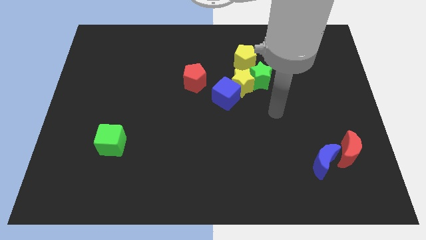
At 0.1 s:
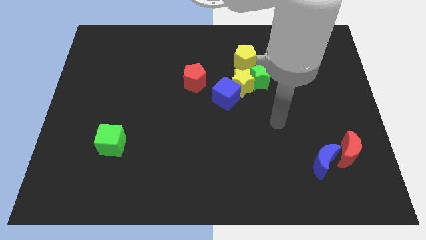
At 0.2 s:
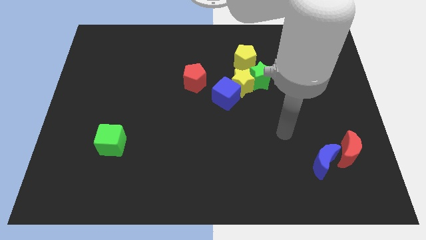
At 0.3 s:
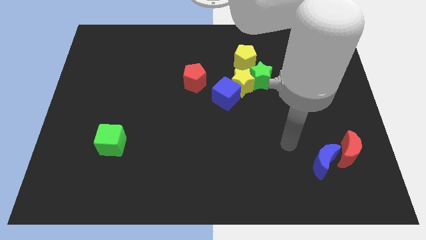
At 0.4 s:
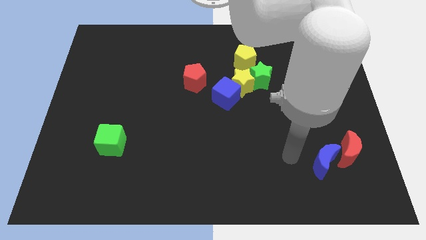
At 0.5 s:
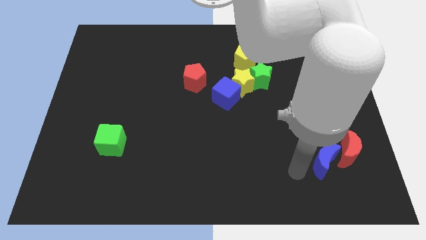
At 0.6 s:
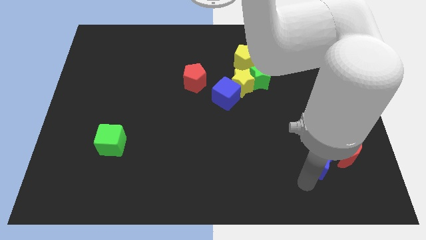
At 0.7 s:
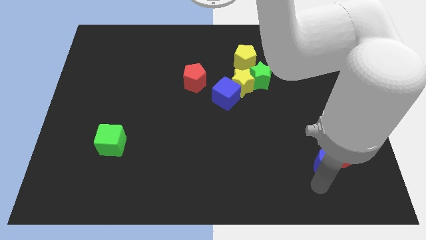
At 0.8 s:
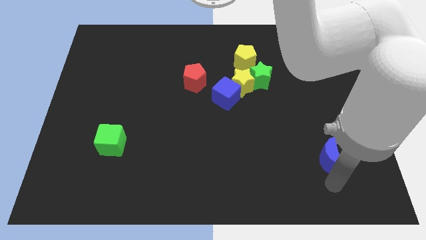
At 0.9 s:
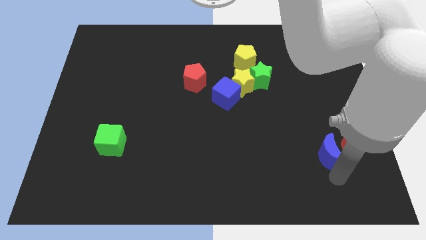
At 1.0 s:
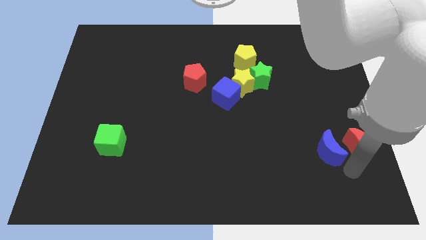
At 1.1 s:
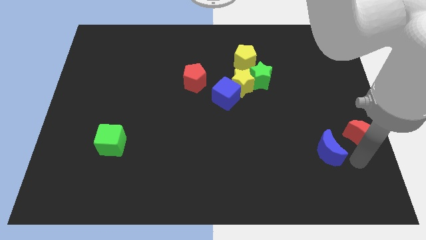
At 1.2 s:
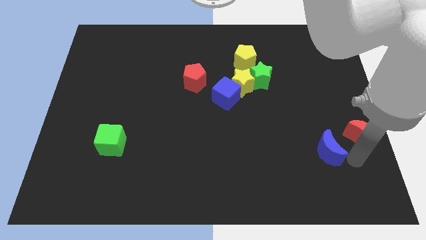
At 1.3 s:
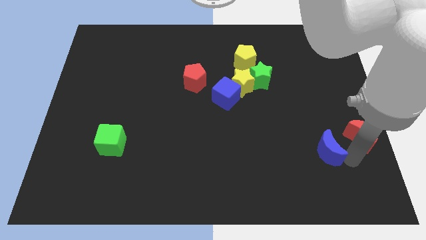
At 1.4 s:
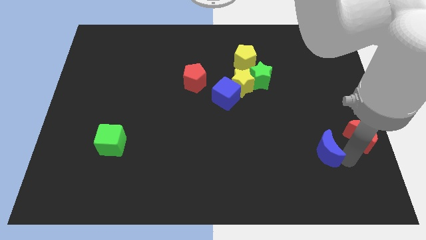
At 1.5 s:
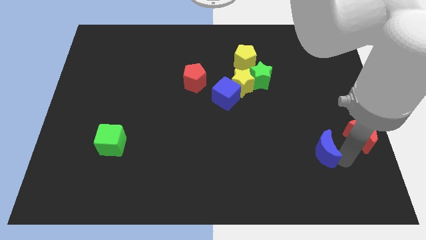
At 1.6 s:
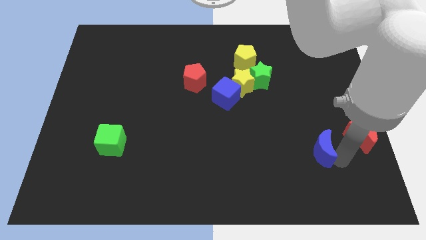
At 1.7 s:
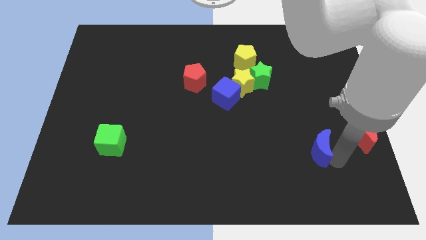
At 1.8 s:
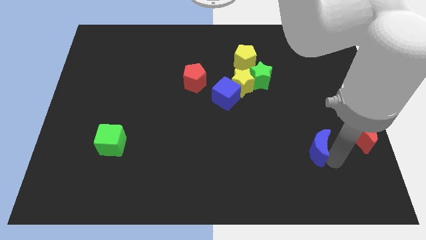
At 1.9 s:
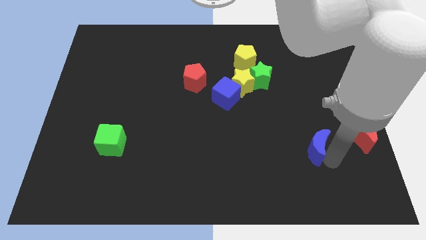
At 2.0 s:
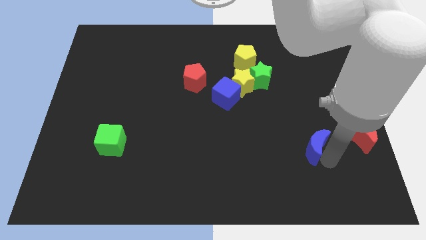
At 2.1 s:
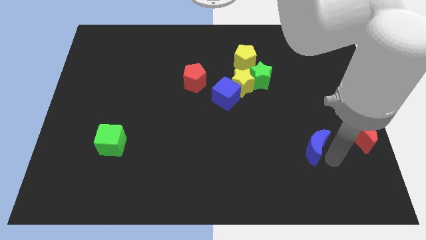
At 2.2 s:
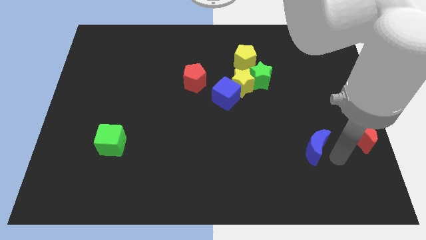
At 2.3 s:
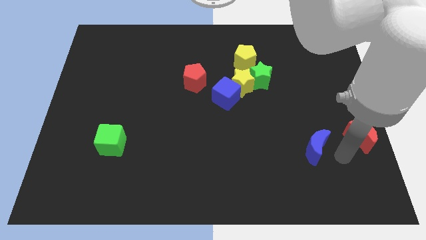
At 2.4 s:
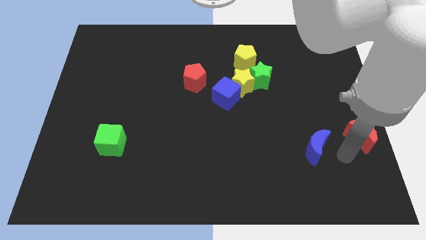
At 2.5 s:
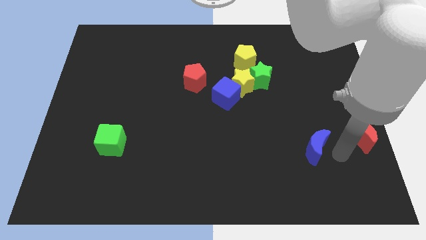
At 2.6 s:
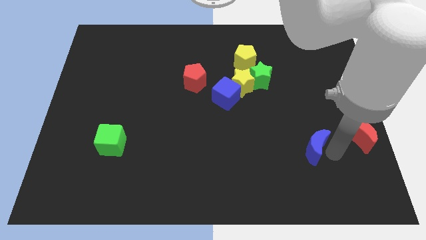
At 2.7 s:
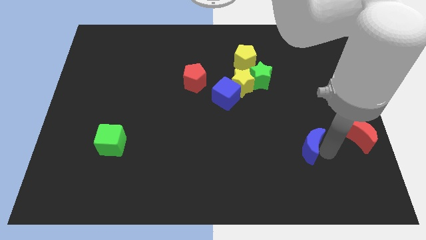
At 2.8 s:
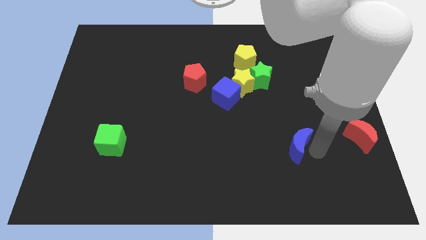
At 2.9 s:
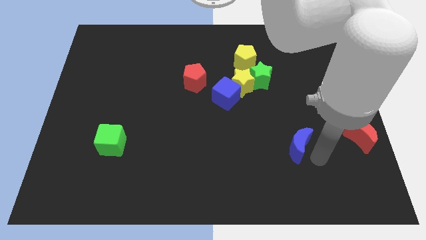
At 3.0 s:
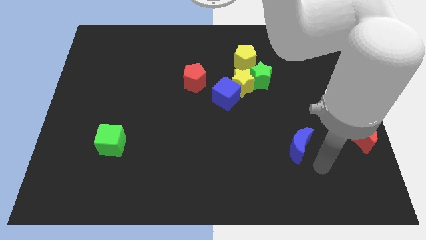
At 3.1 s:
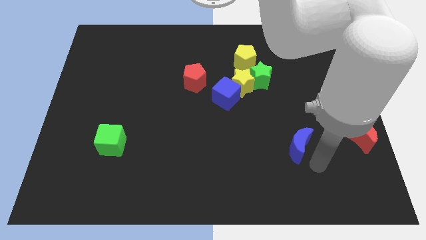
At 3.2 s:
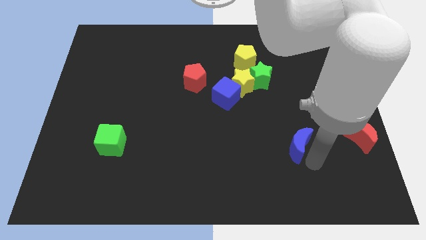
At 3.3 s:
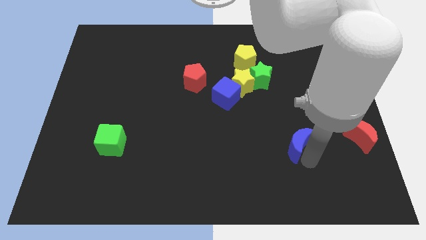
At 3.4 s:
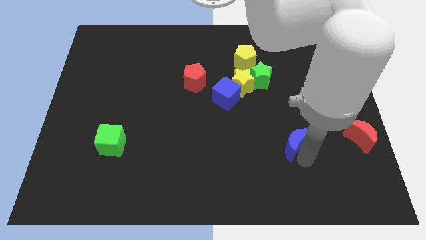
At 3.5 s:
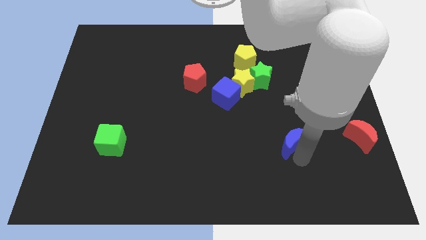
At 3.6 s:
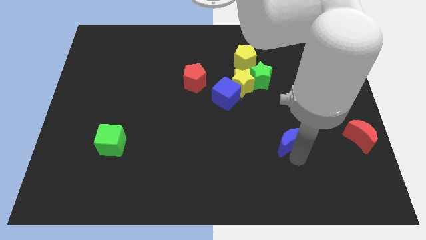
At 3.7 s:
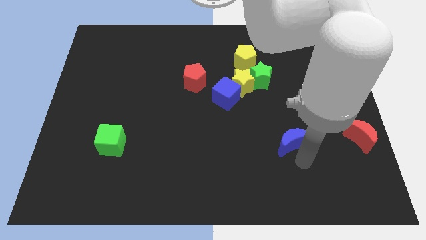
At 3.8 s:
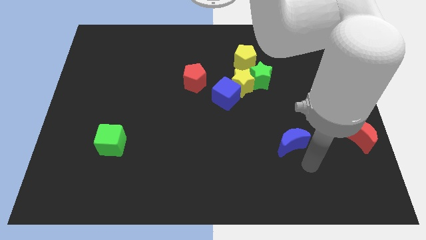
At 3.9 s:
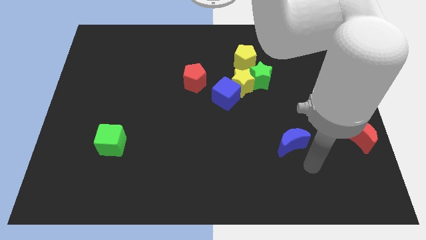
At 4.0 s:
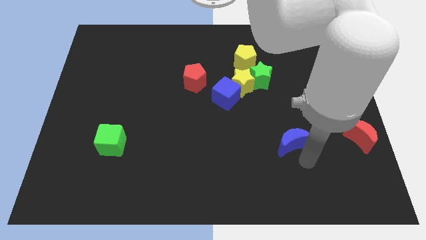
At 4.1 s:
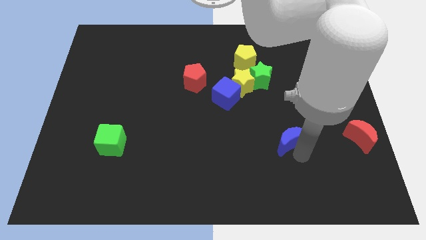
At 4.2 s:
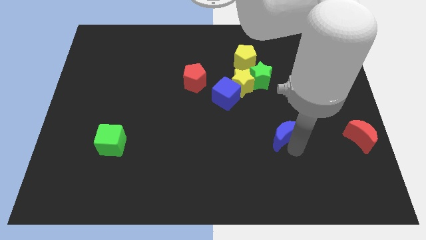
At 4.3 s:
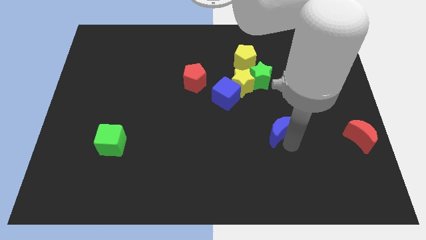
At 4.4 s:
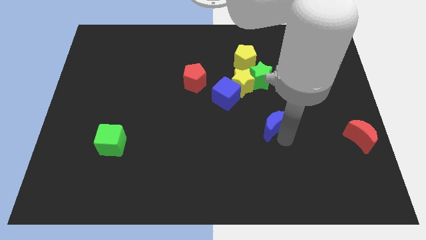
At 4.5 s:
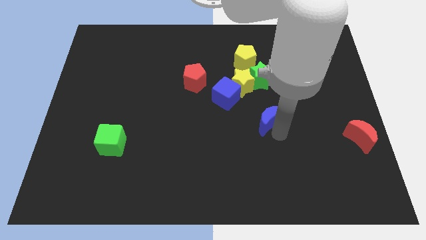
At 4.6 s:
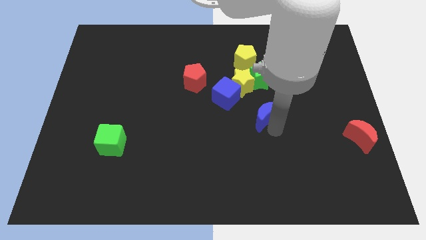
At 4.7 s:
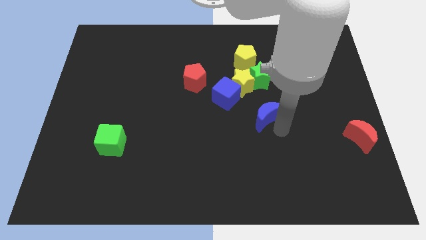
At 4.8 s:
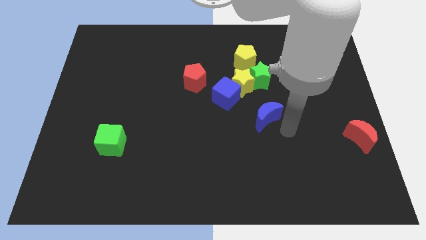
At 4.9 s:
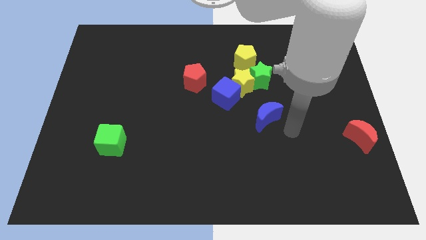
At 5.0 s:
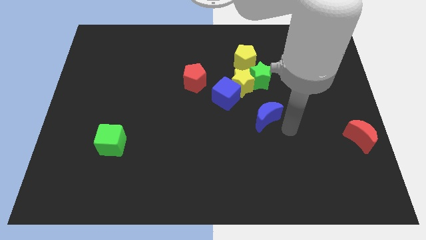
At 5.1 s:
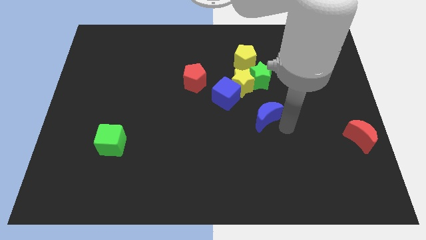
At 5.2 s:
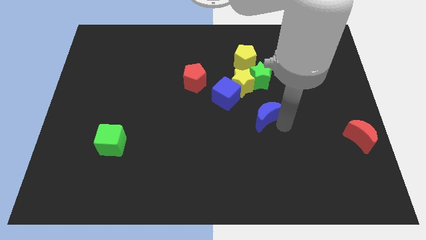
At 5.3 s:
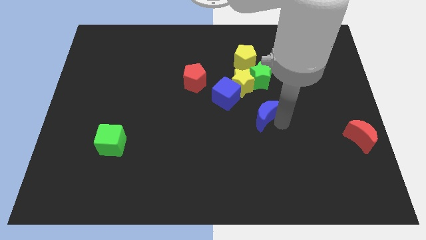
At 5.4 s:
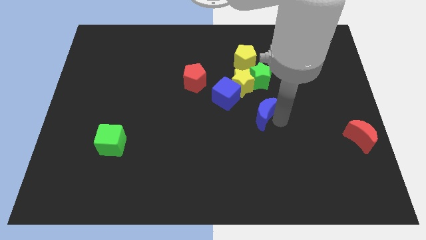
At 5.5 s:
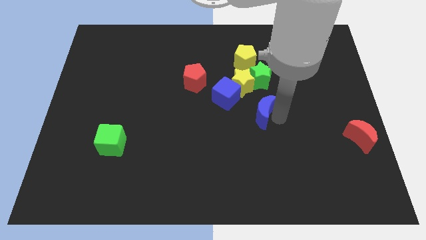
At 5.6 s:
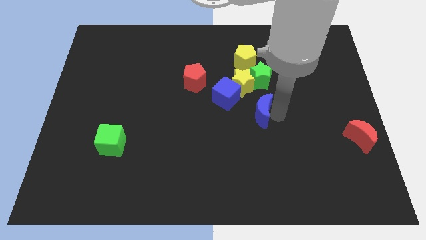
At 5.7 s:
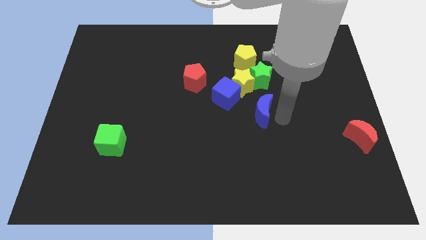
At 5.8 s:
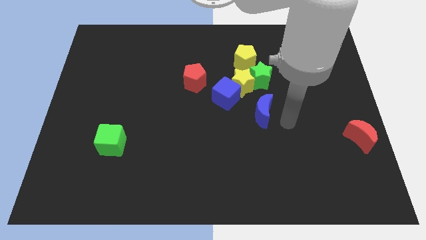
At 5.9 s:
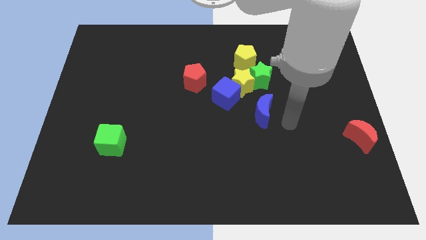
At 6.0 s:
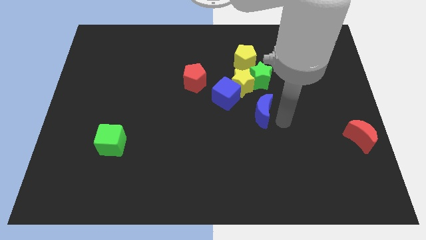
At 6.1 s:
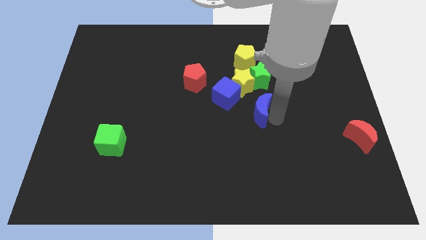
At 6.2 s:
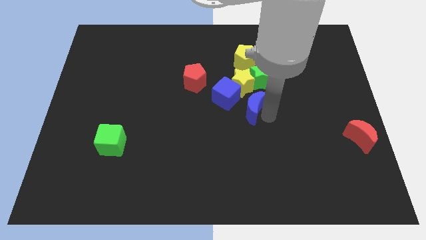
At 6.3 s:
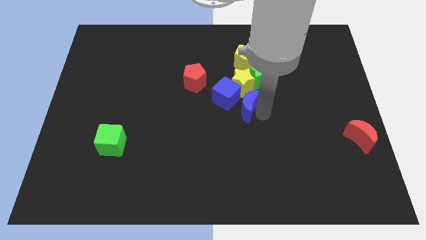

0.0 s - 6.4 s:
slide the blue moon towards the blue cube

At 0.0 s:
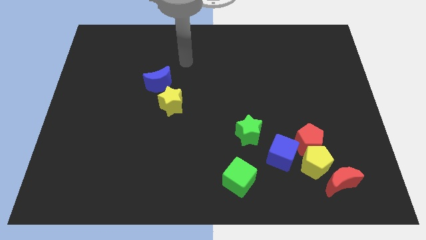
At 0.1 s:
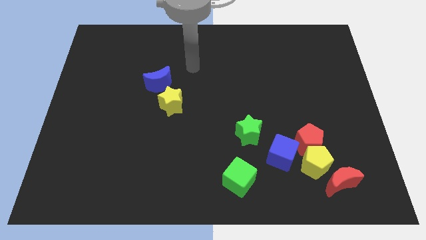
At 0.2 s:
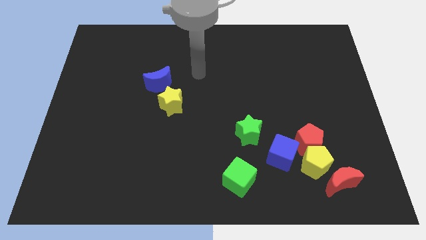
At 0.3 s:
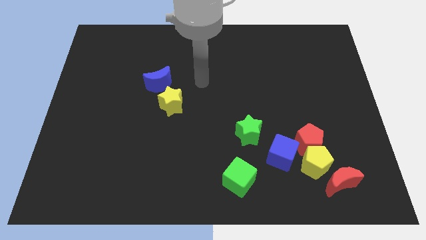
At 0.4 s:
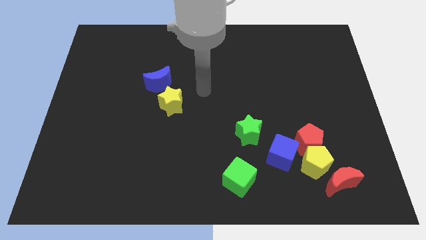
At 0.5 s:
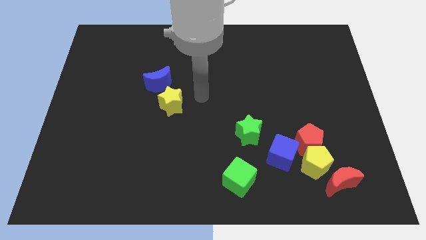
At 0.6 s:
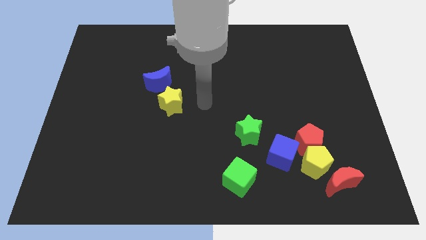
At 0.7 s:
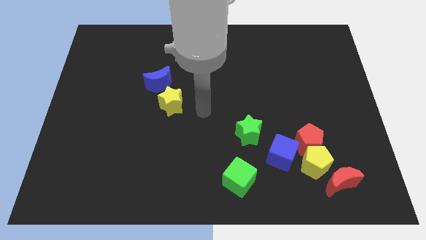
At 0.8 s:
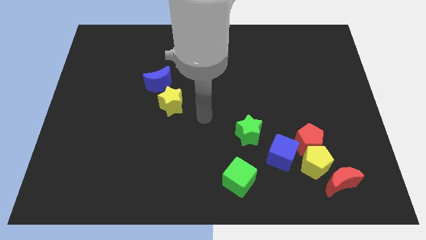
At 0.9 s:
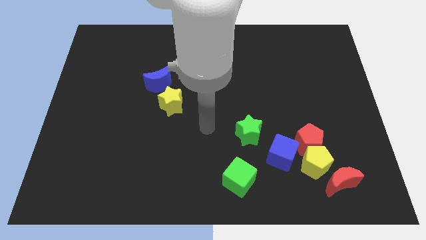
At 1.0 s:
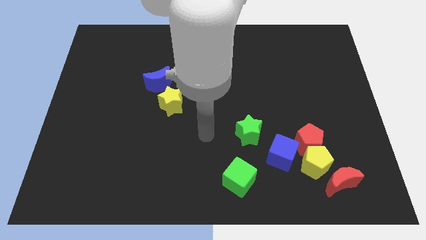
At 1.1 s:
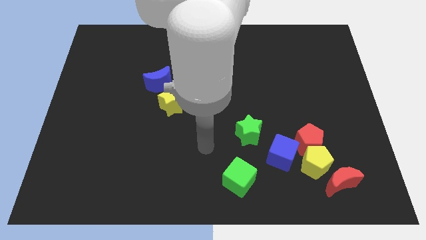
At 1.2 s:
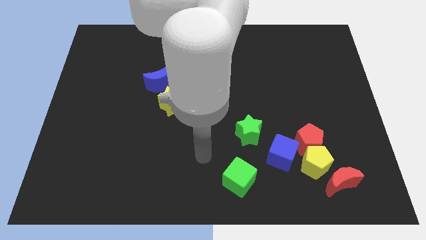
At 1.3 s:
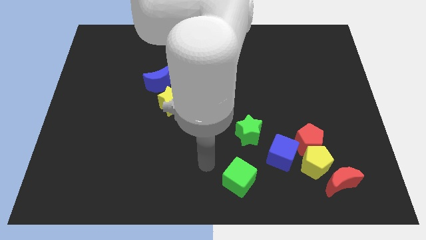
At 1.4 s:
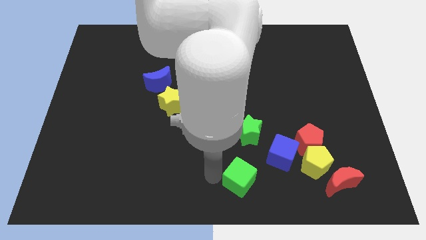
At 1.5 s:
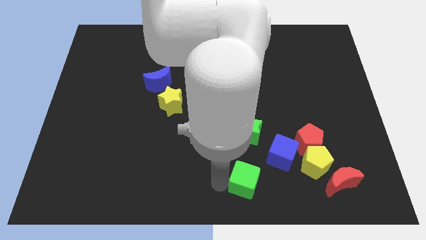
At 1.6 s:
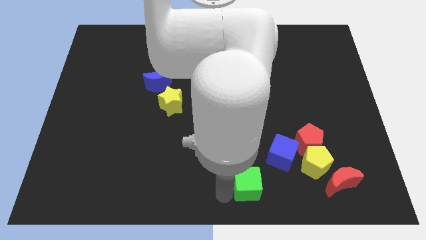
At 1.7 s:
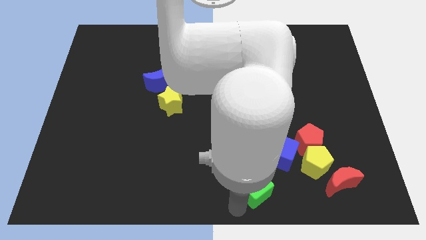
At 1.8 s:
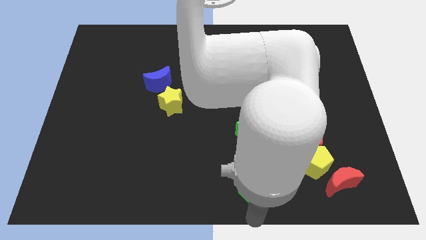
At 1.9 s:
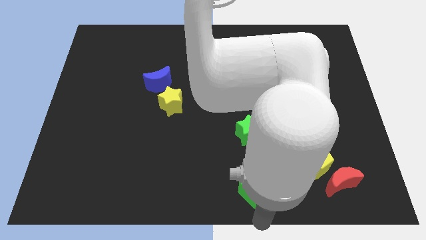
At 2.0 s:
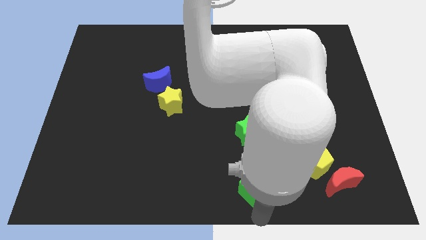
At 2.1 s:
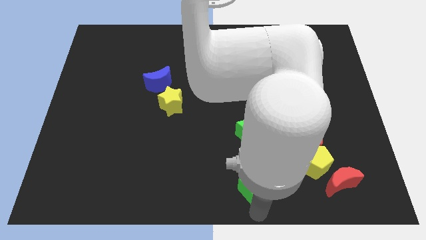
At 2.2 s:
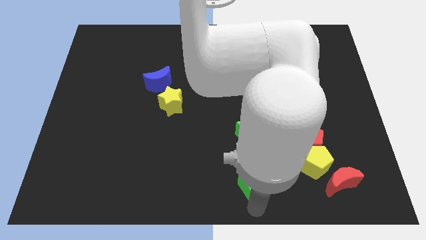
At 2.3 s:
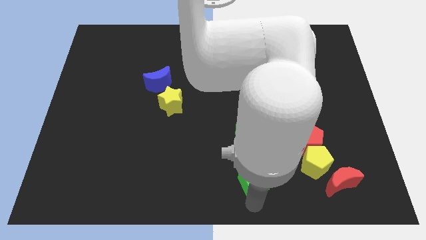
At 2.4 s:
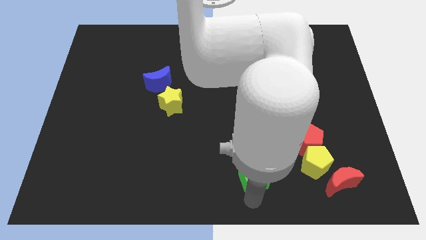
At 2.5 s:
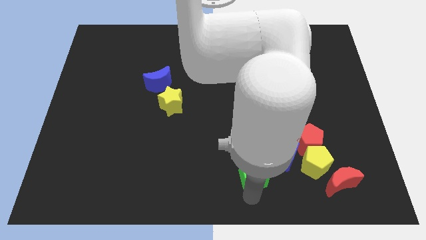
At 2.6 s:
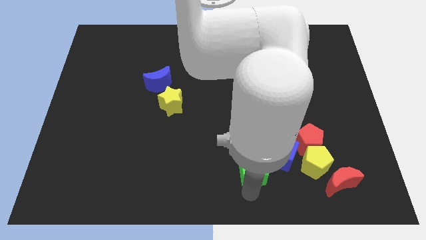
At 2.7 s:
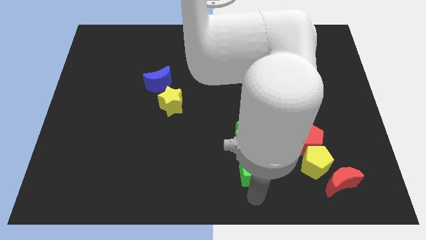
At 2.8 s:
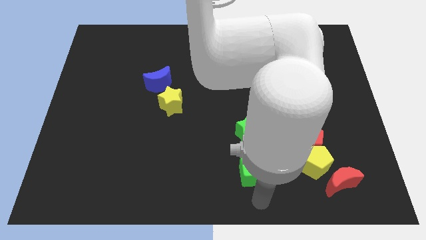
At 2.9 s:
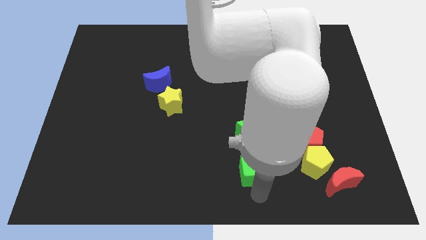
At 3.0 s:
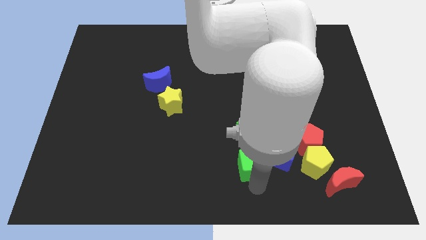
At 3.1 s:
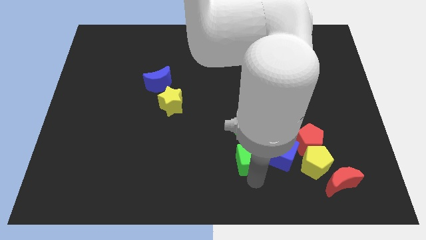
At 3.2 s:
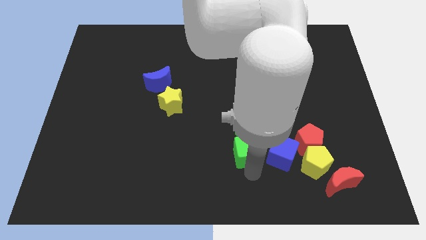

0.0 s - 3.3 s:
put the green cube close to the green star
